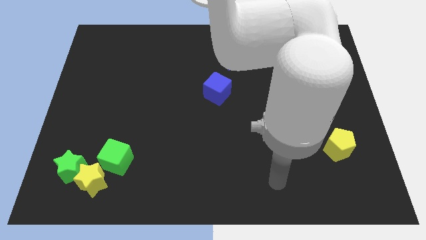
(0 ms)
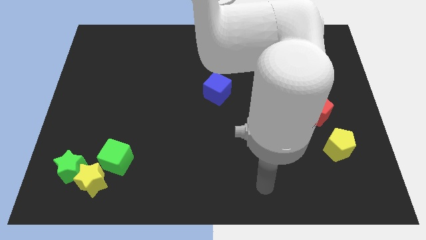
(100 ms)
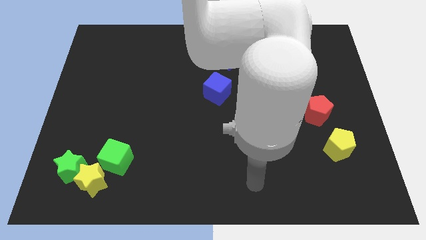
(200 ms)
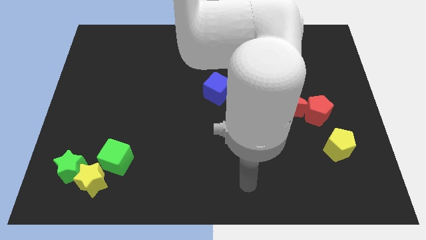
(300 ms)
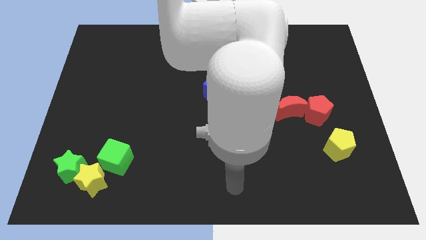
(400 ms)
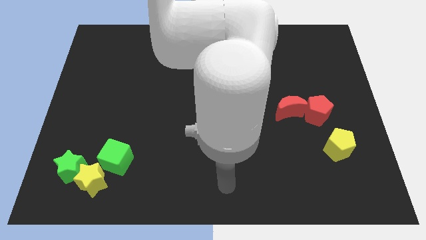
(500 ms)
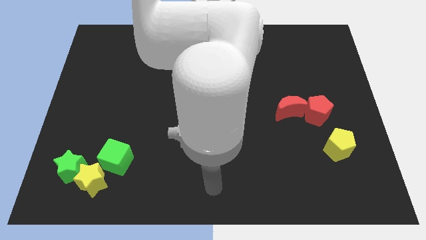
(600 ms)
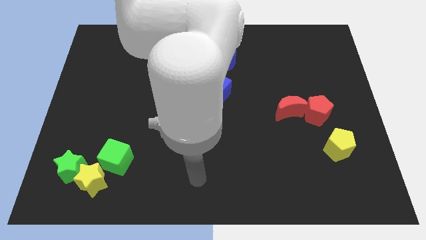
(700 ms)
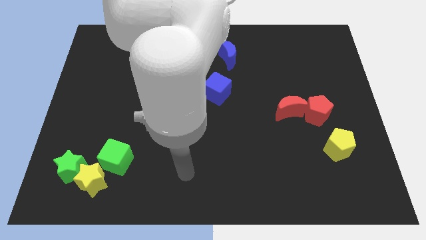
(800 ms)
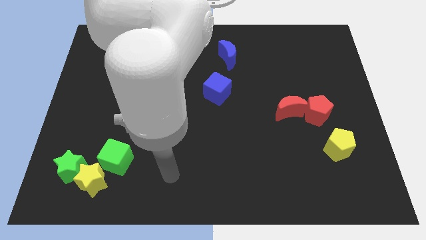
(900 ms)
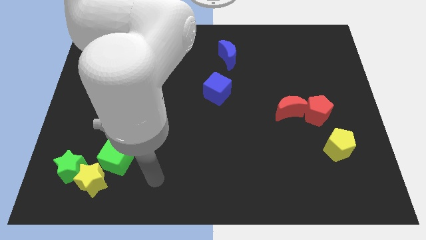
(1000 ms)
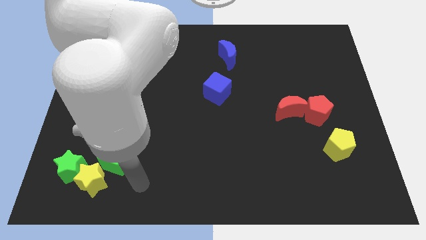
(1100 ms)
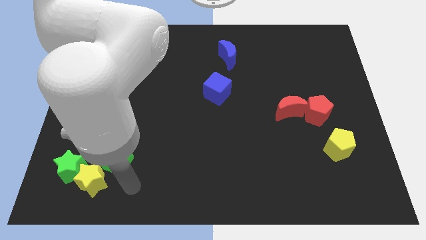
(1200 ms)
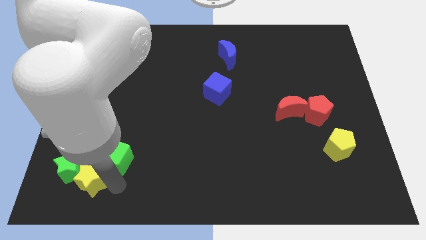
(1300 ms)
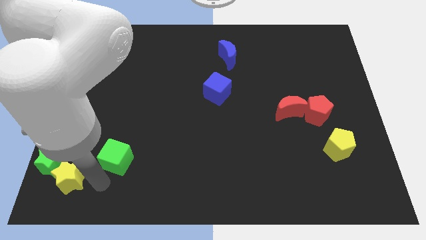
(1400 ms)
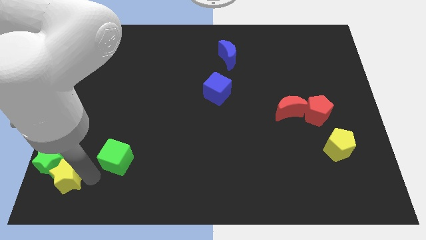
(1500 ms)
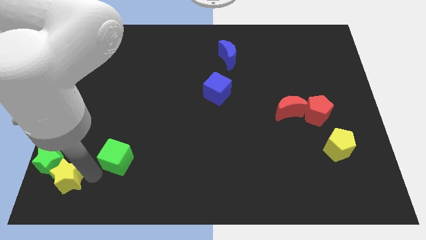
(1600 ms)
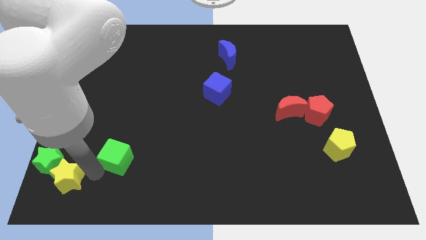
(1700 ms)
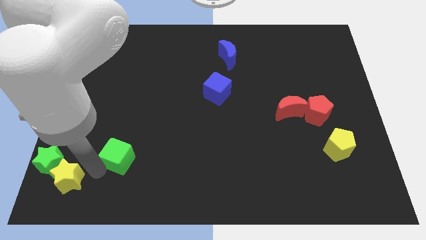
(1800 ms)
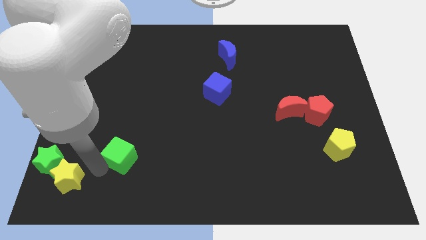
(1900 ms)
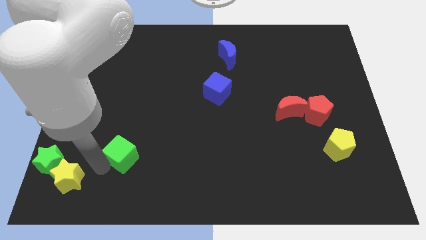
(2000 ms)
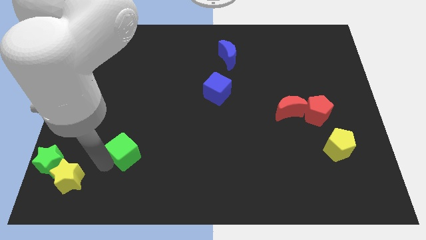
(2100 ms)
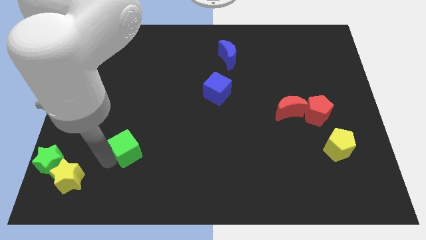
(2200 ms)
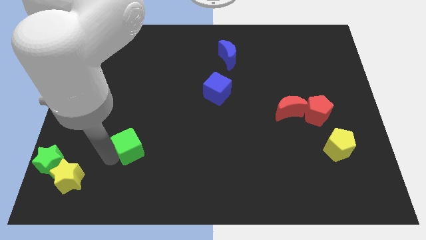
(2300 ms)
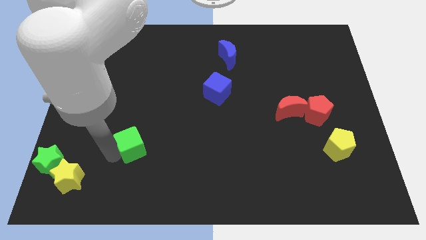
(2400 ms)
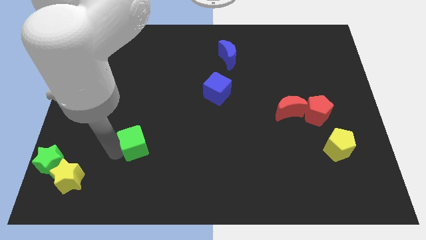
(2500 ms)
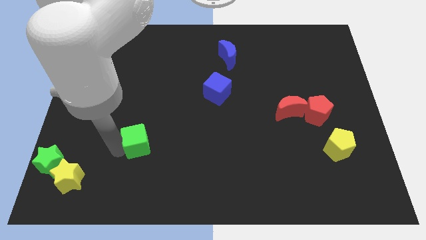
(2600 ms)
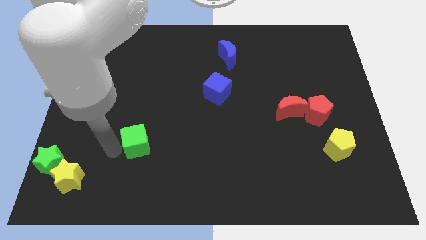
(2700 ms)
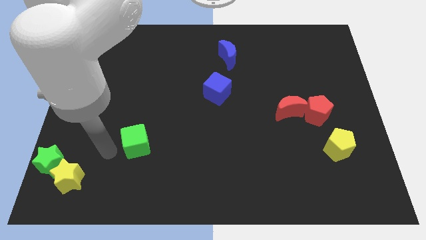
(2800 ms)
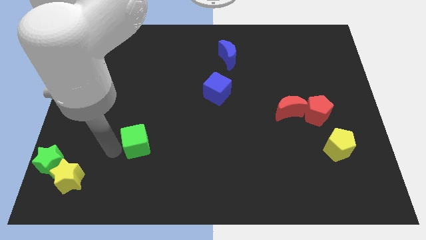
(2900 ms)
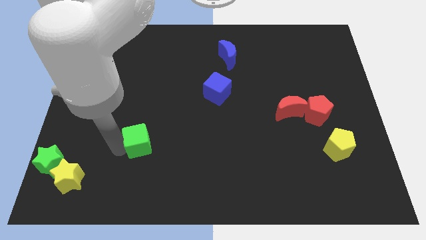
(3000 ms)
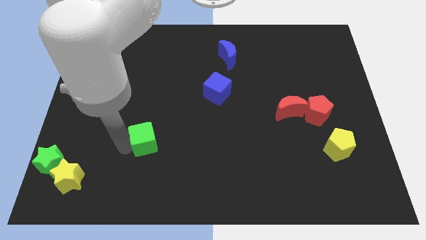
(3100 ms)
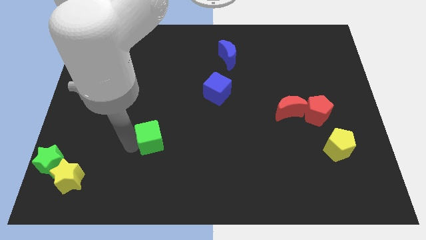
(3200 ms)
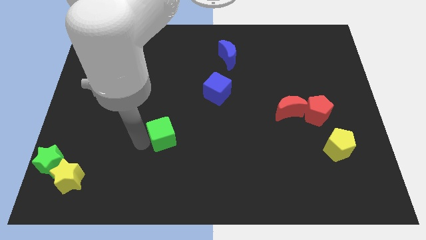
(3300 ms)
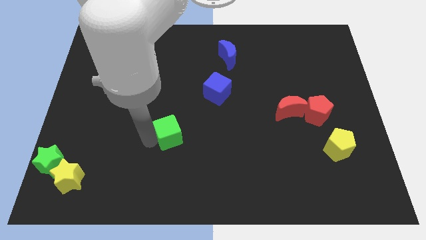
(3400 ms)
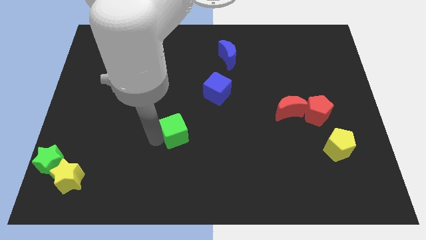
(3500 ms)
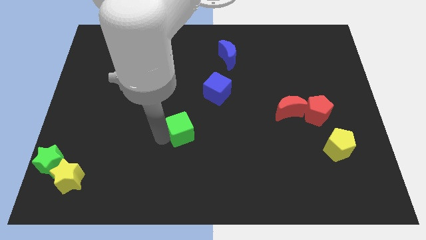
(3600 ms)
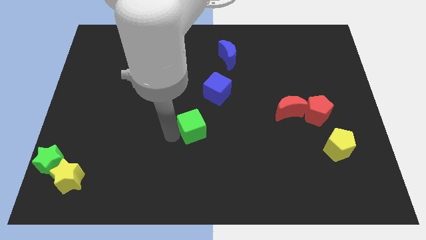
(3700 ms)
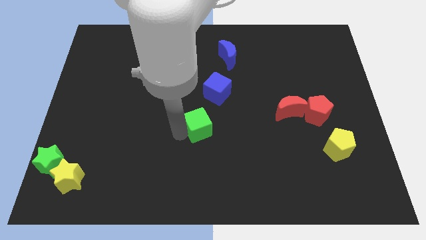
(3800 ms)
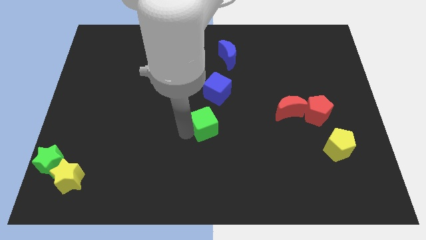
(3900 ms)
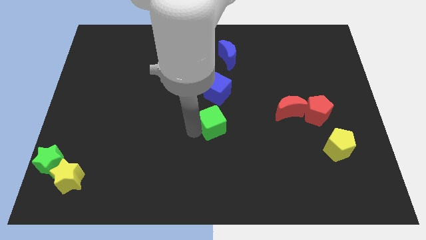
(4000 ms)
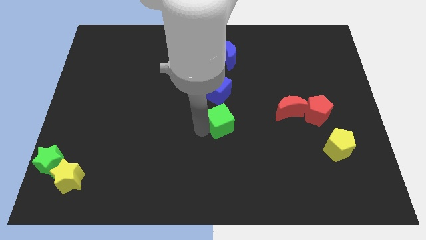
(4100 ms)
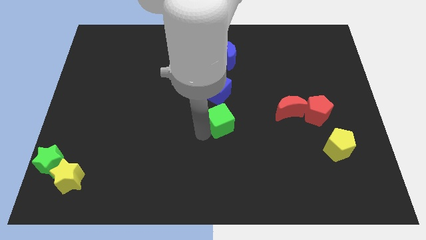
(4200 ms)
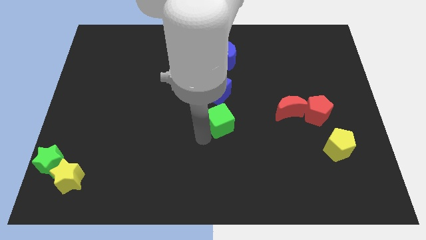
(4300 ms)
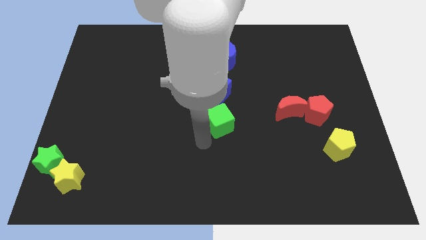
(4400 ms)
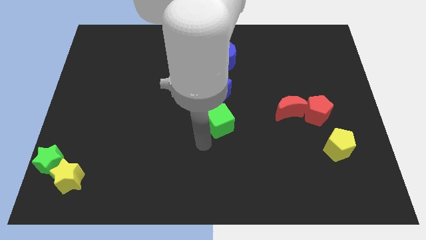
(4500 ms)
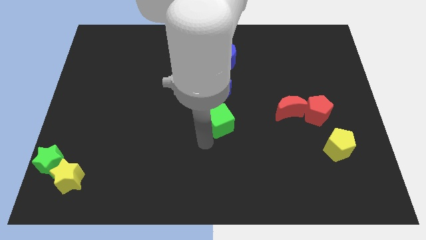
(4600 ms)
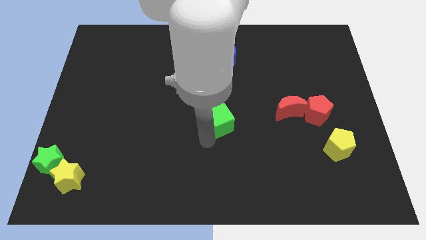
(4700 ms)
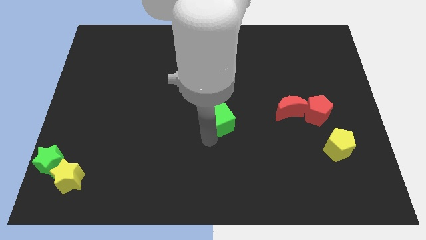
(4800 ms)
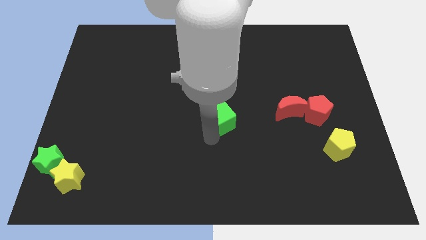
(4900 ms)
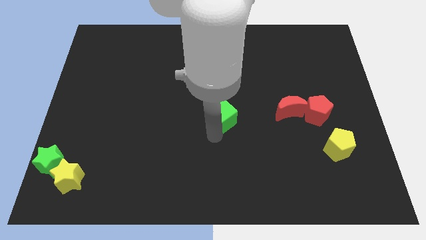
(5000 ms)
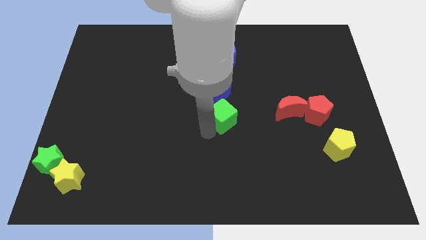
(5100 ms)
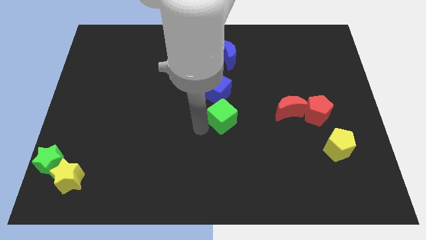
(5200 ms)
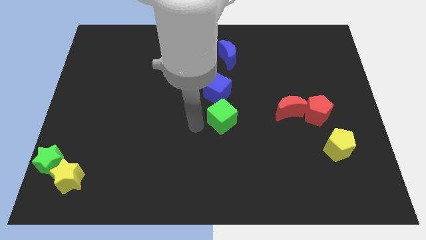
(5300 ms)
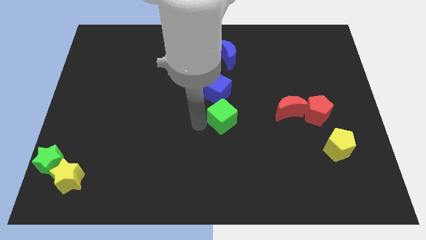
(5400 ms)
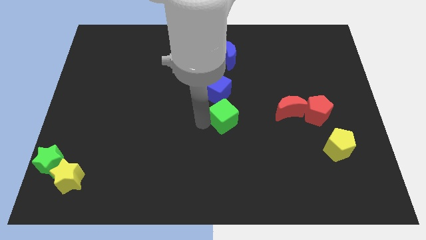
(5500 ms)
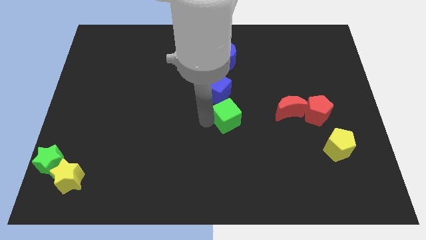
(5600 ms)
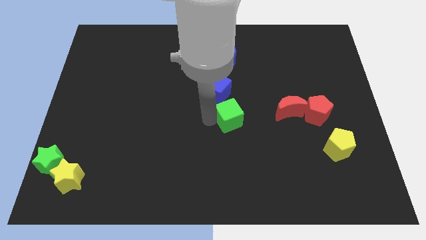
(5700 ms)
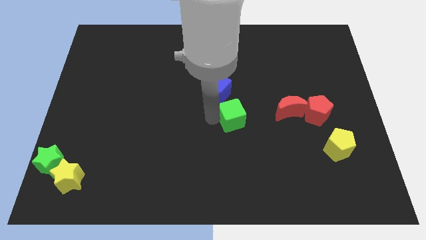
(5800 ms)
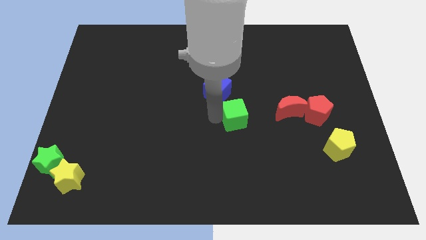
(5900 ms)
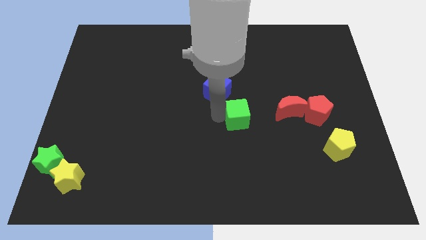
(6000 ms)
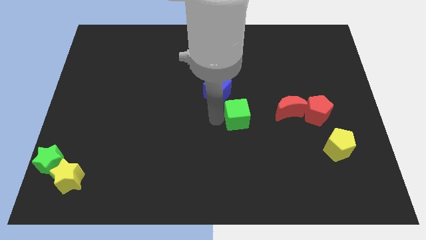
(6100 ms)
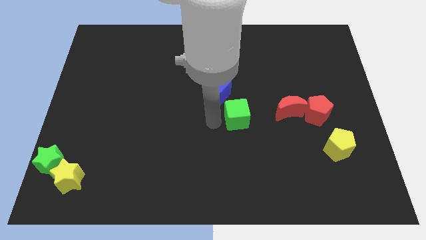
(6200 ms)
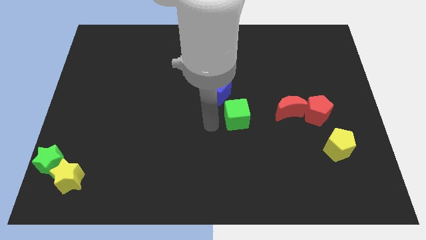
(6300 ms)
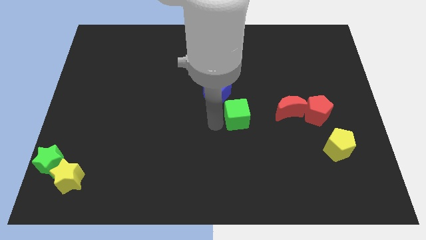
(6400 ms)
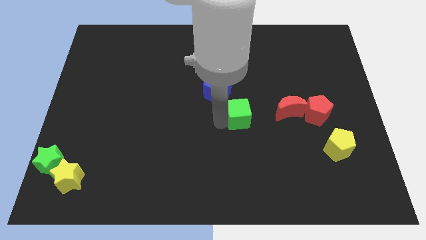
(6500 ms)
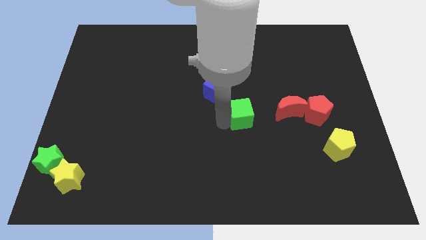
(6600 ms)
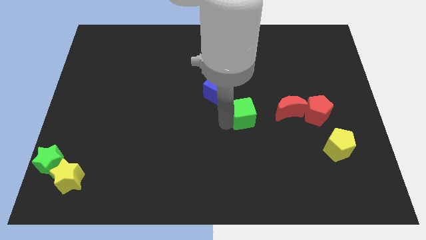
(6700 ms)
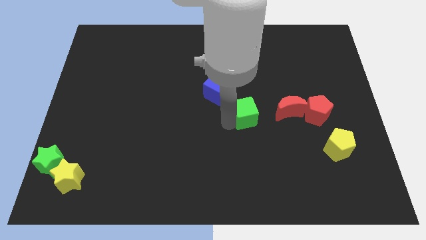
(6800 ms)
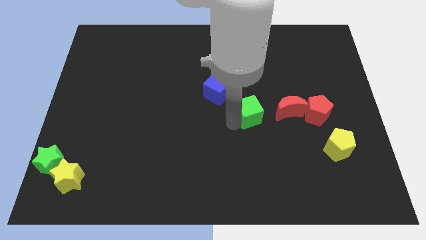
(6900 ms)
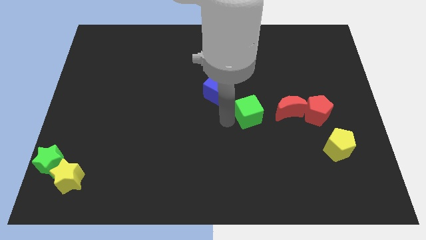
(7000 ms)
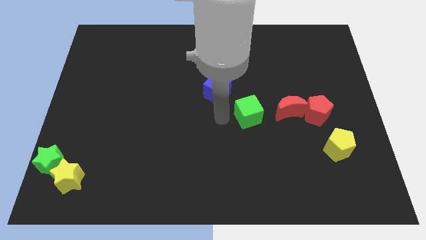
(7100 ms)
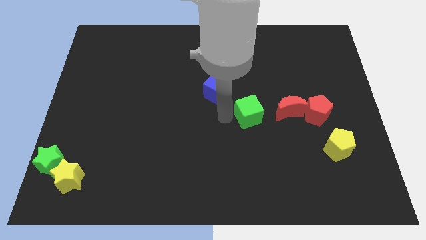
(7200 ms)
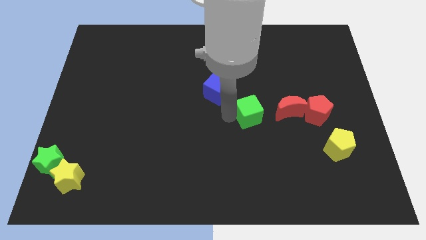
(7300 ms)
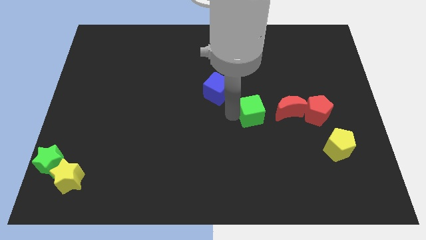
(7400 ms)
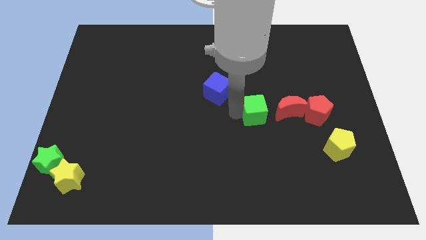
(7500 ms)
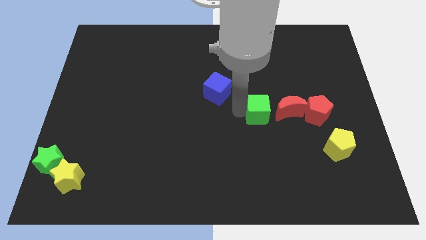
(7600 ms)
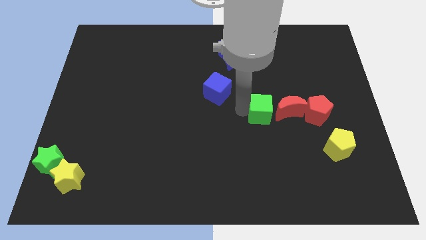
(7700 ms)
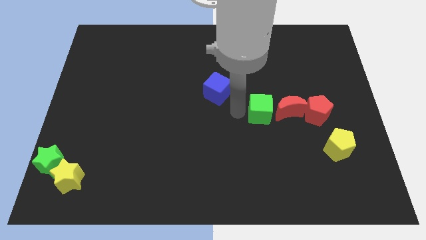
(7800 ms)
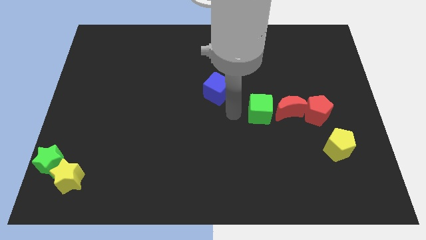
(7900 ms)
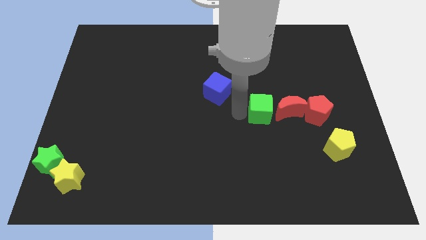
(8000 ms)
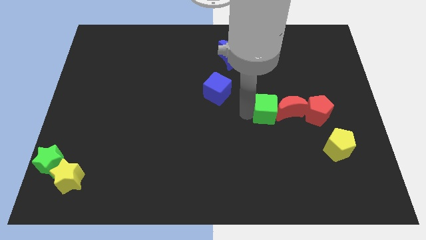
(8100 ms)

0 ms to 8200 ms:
slide the green cube next to the red moon
